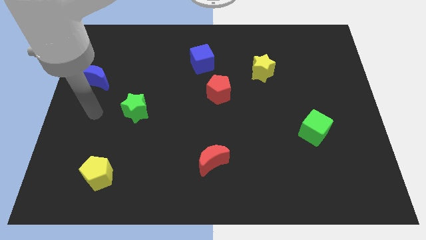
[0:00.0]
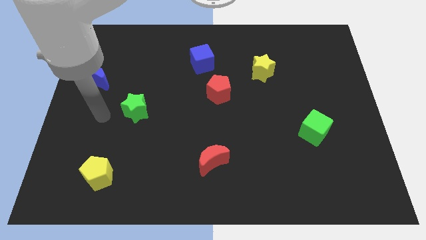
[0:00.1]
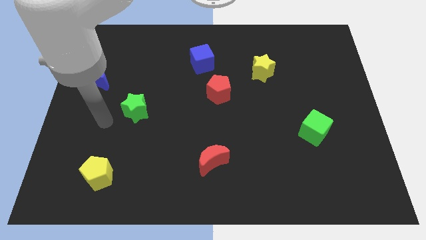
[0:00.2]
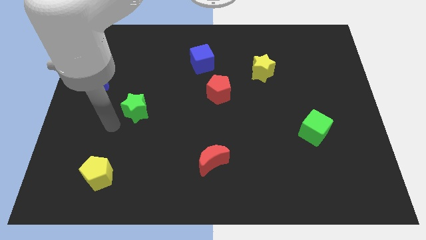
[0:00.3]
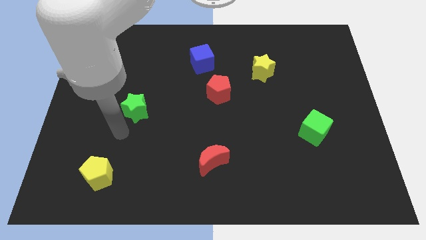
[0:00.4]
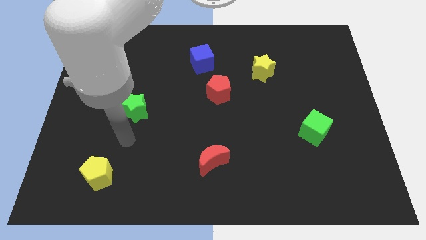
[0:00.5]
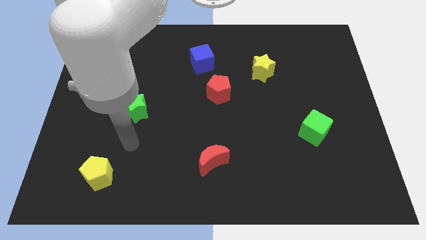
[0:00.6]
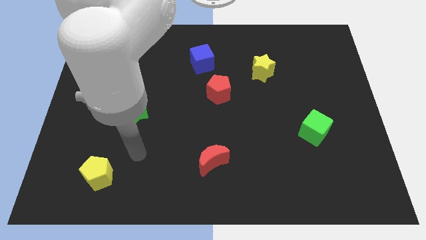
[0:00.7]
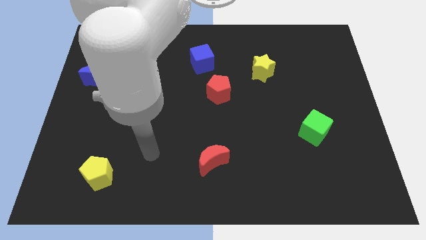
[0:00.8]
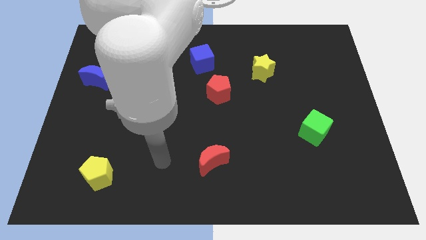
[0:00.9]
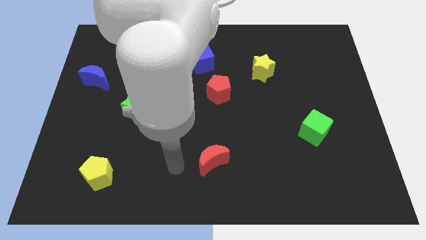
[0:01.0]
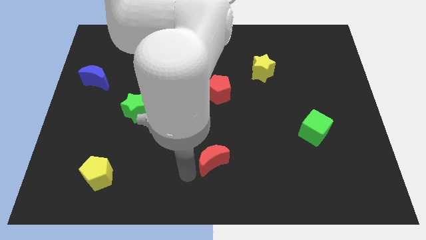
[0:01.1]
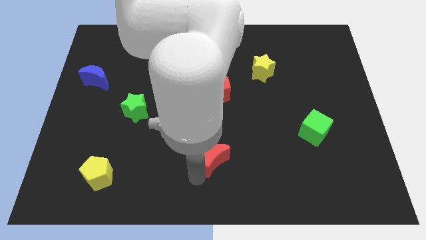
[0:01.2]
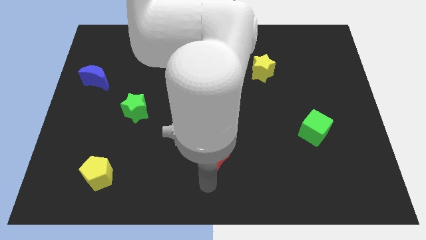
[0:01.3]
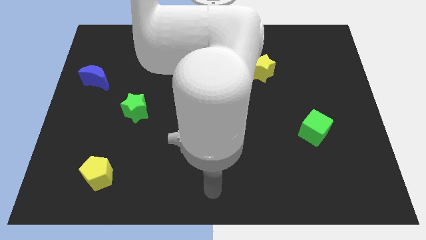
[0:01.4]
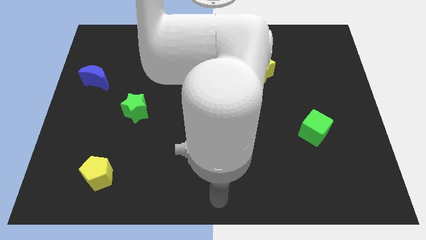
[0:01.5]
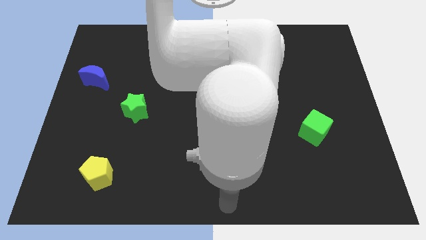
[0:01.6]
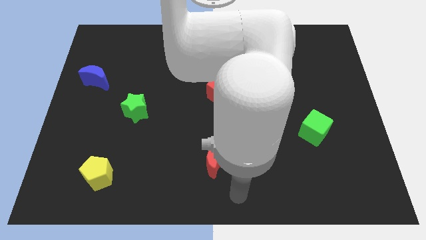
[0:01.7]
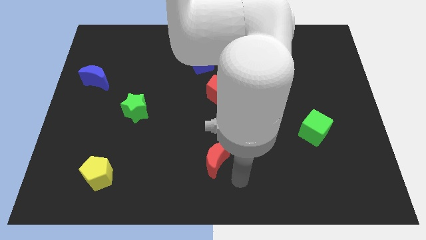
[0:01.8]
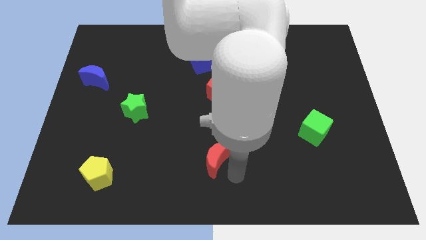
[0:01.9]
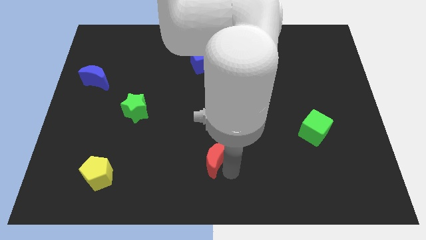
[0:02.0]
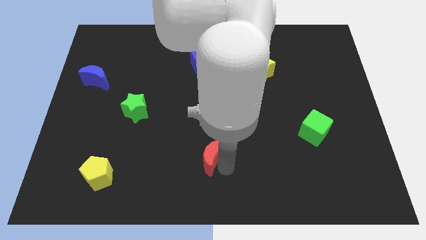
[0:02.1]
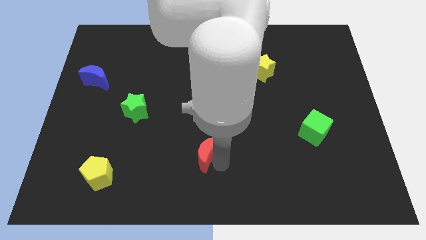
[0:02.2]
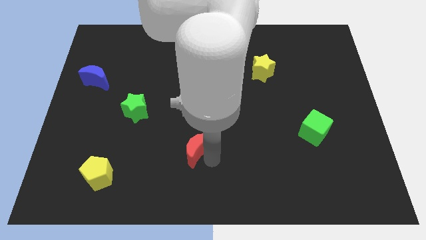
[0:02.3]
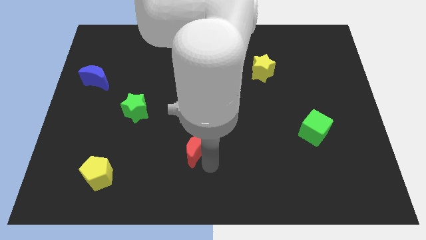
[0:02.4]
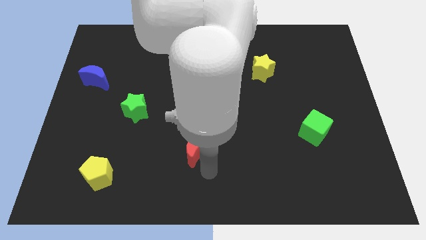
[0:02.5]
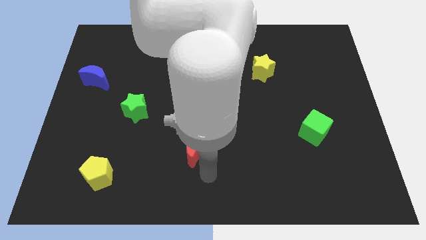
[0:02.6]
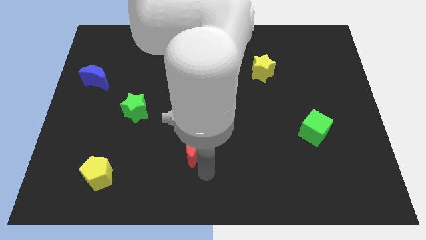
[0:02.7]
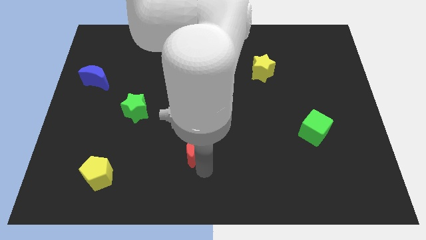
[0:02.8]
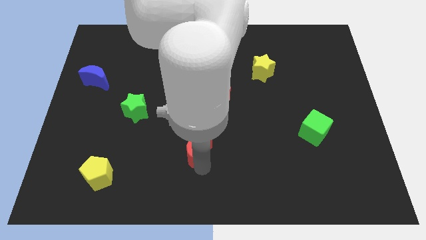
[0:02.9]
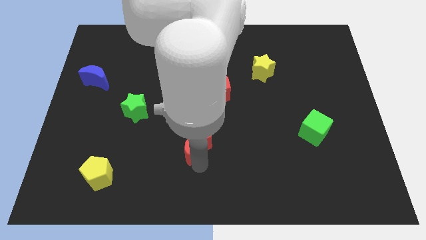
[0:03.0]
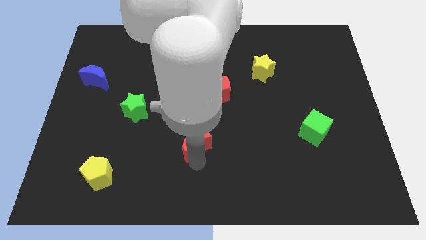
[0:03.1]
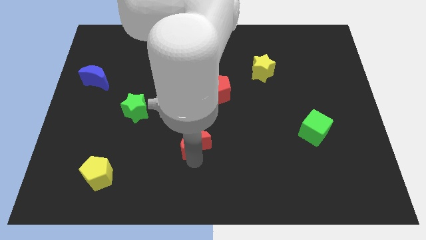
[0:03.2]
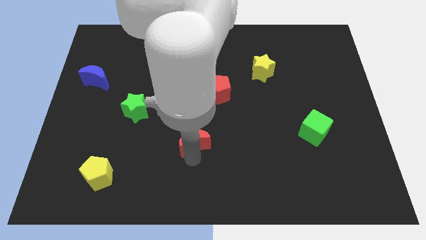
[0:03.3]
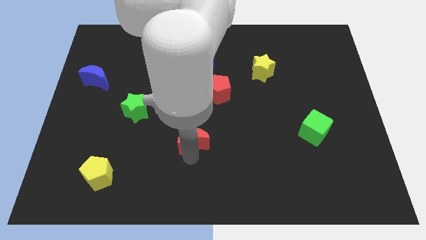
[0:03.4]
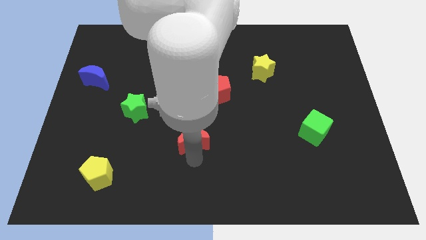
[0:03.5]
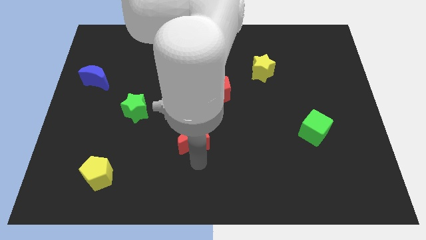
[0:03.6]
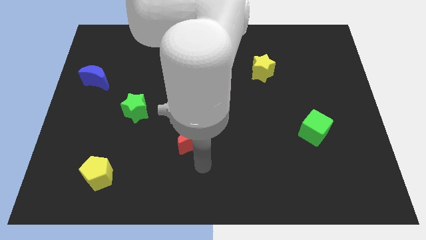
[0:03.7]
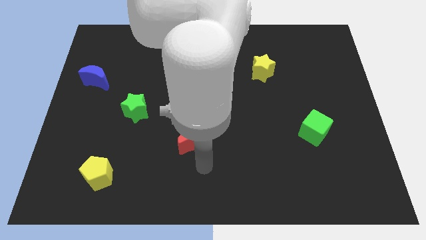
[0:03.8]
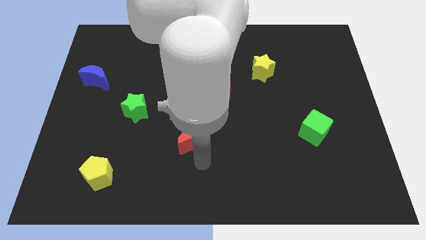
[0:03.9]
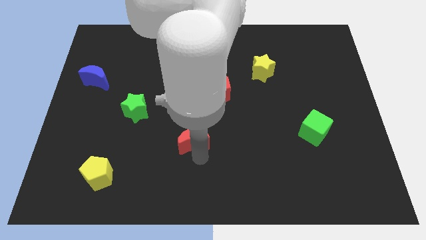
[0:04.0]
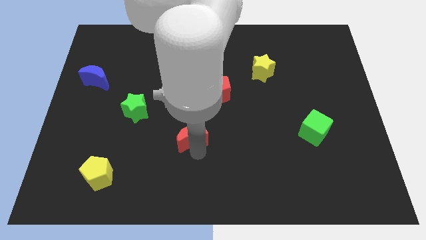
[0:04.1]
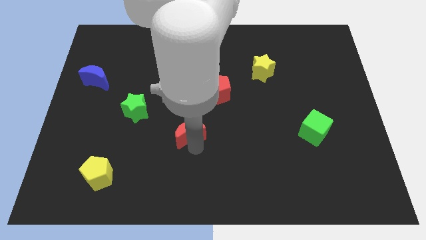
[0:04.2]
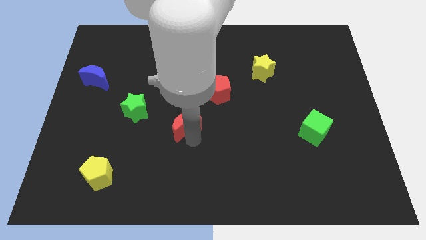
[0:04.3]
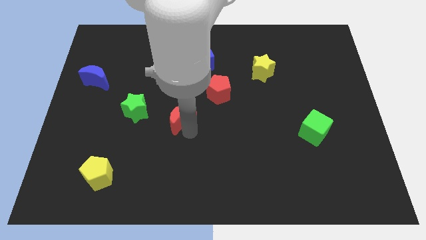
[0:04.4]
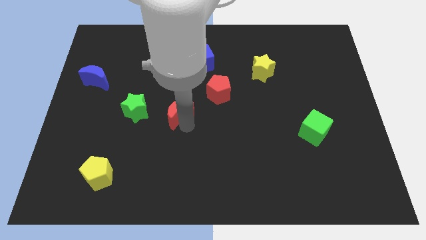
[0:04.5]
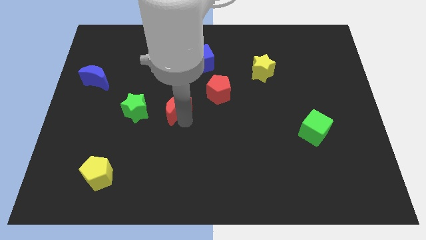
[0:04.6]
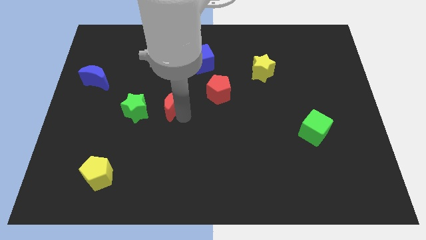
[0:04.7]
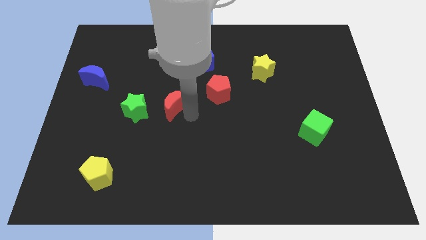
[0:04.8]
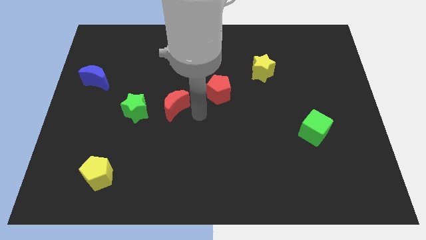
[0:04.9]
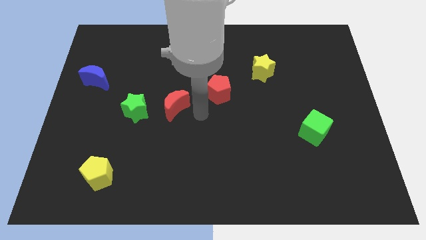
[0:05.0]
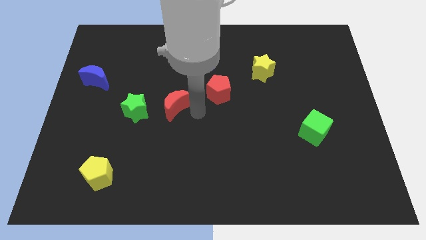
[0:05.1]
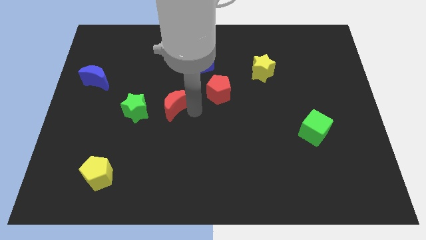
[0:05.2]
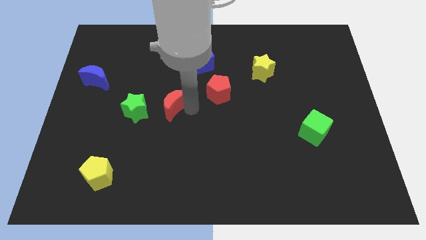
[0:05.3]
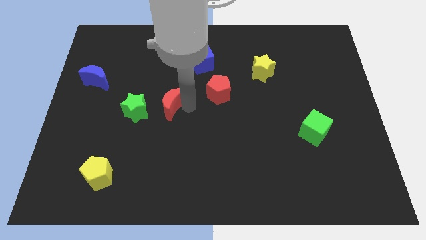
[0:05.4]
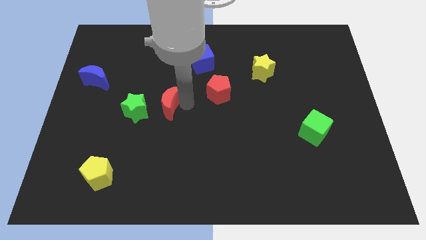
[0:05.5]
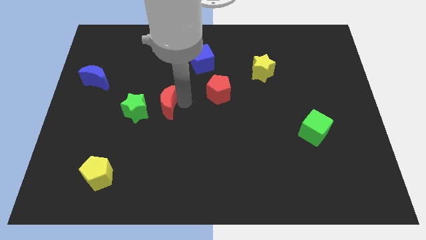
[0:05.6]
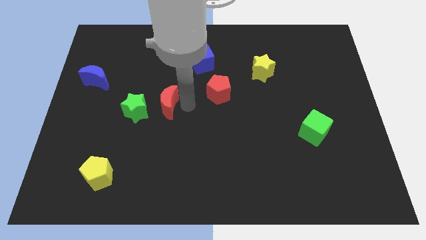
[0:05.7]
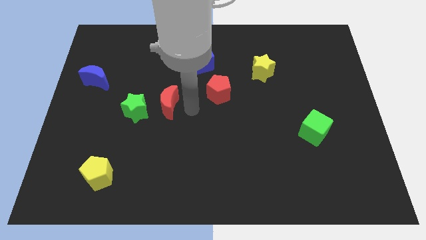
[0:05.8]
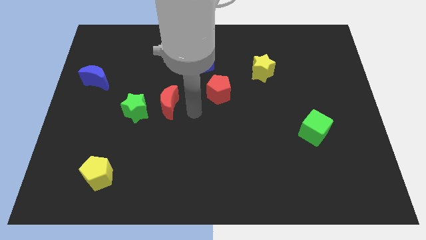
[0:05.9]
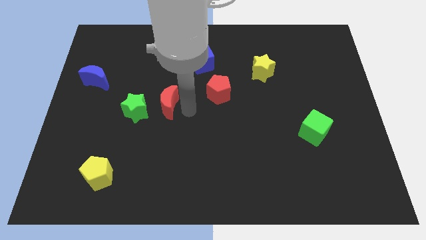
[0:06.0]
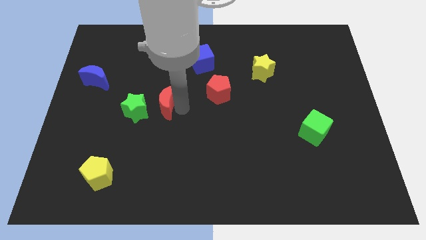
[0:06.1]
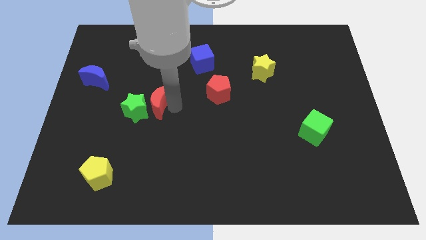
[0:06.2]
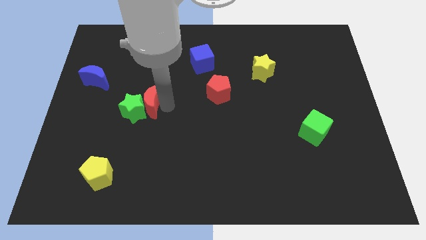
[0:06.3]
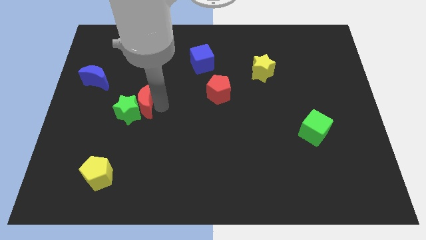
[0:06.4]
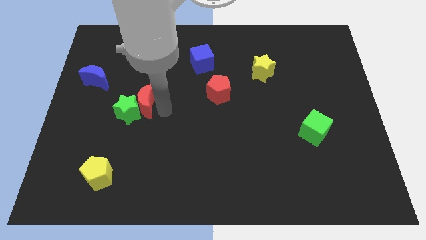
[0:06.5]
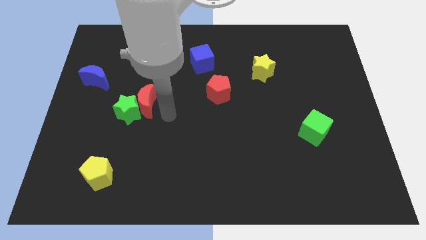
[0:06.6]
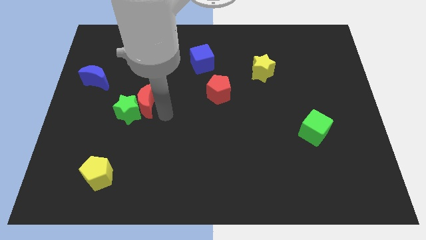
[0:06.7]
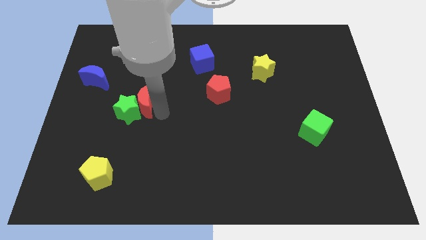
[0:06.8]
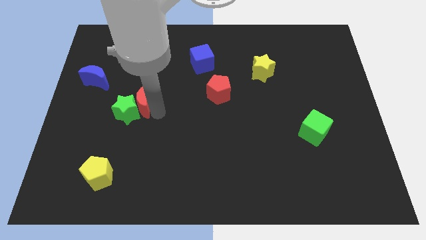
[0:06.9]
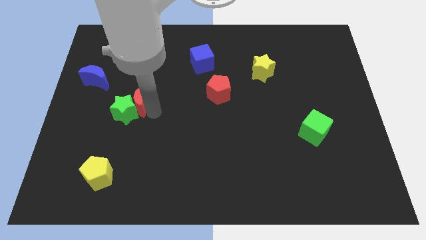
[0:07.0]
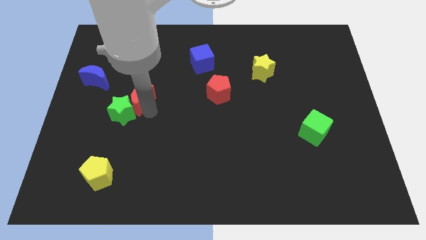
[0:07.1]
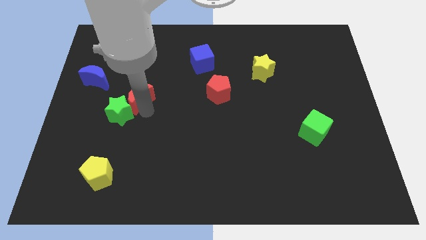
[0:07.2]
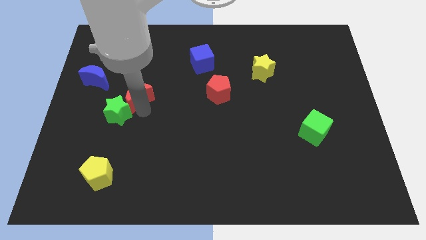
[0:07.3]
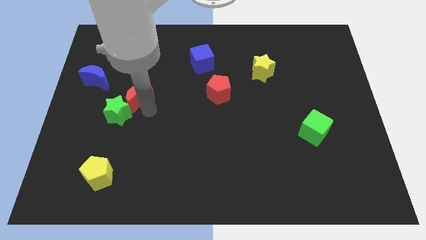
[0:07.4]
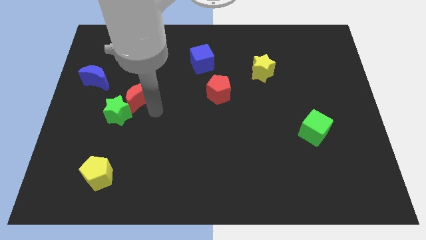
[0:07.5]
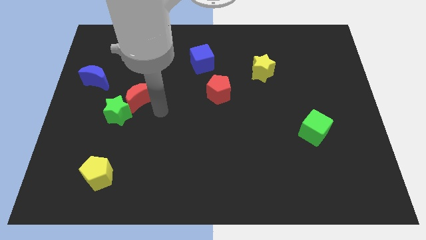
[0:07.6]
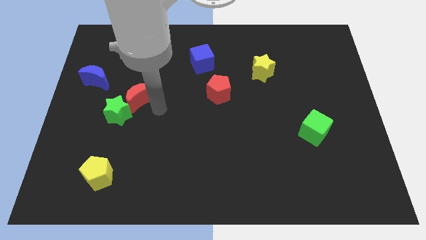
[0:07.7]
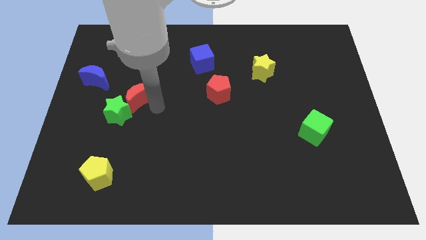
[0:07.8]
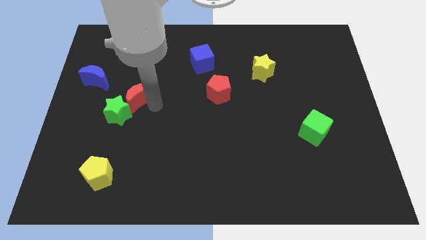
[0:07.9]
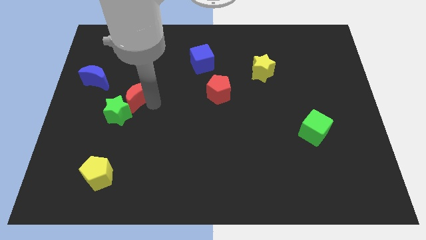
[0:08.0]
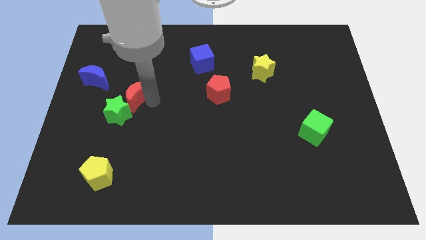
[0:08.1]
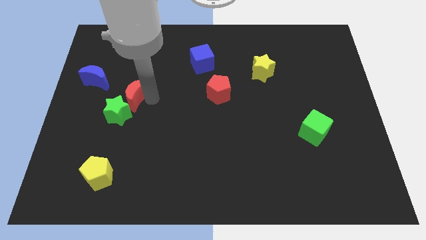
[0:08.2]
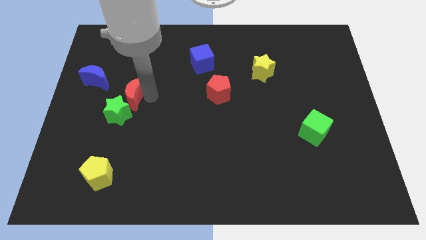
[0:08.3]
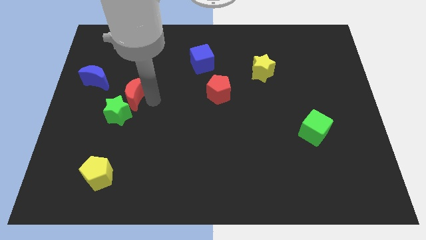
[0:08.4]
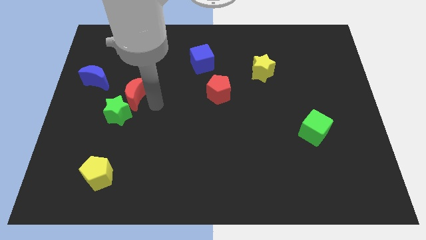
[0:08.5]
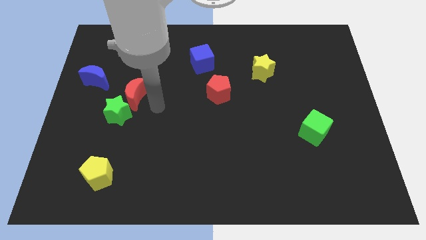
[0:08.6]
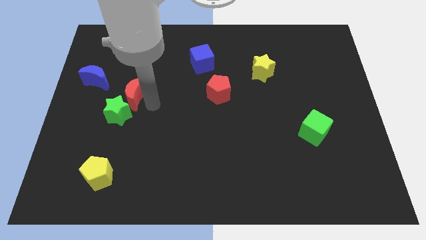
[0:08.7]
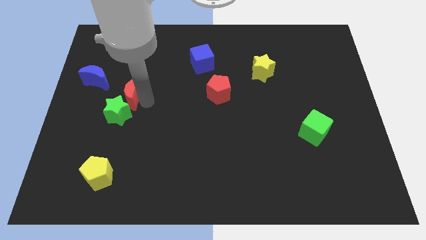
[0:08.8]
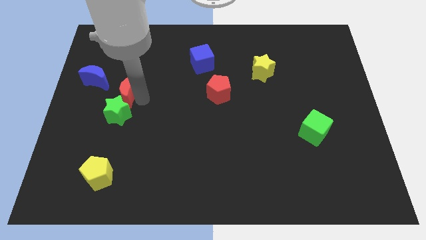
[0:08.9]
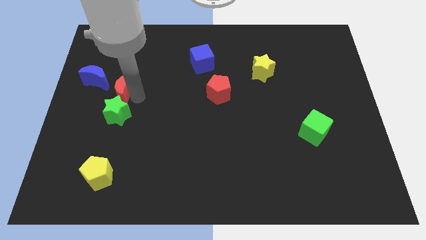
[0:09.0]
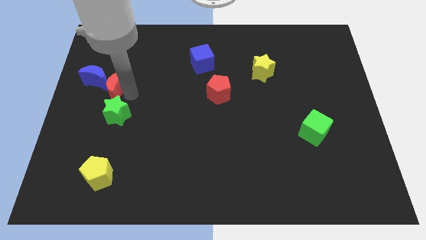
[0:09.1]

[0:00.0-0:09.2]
push the red moon next to the blue moon
